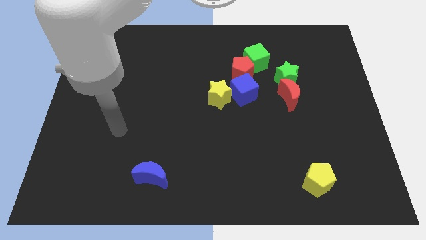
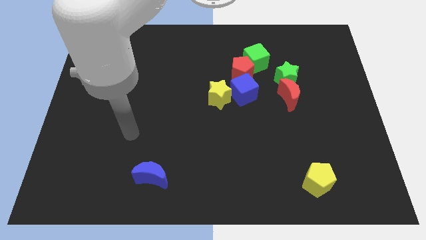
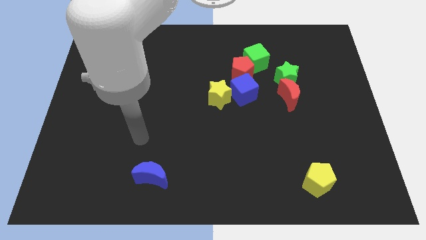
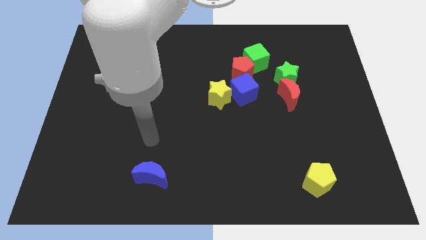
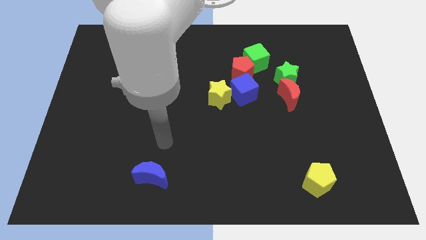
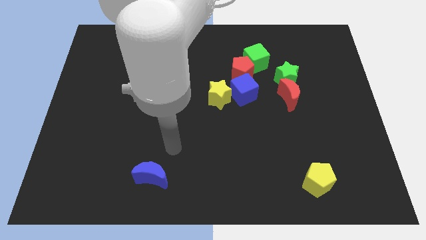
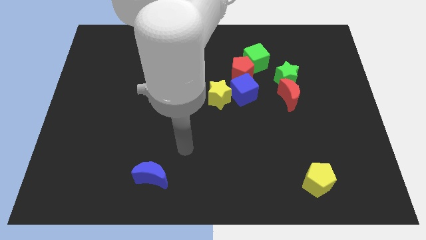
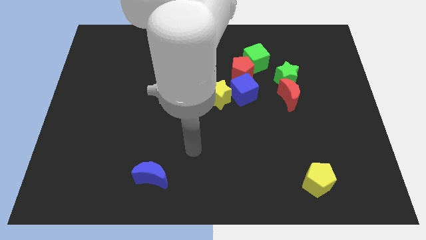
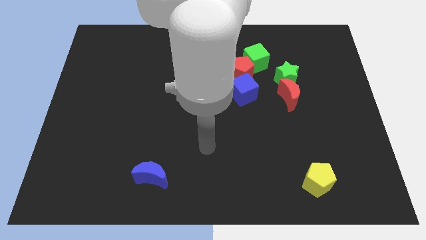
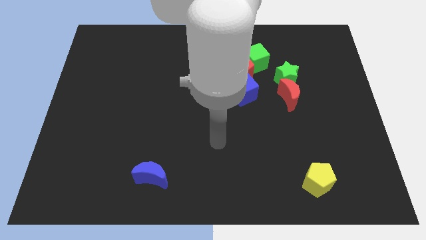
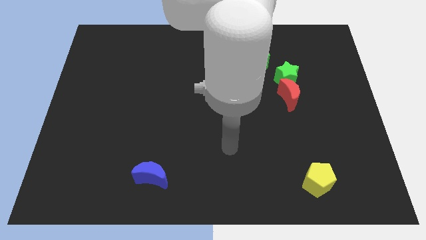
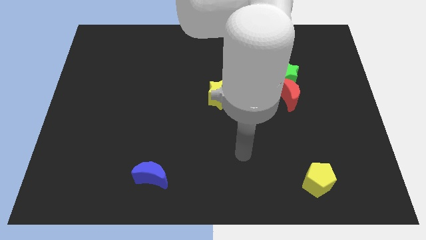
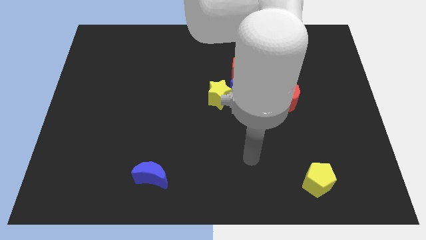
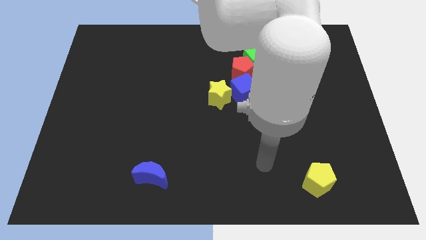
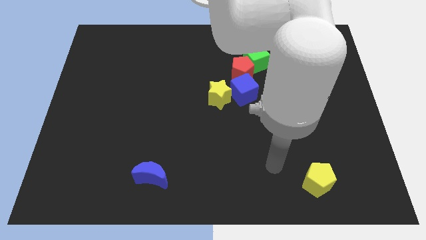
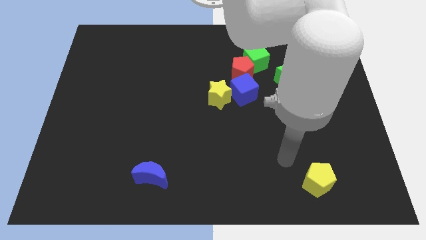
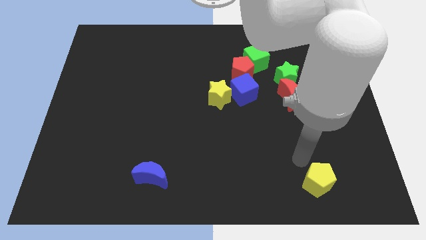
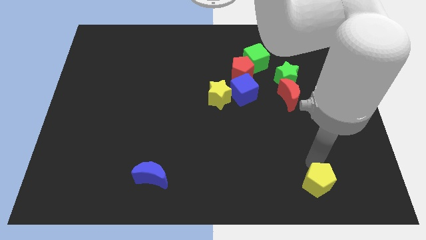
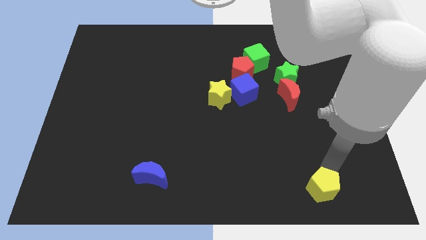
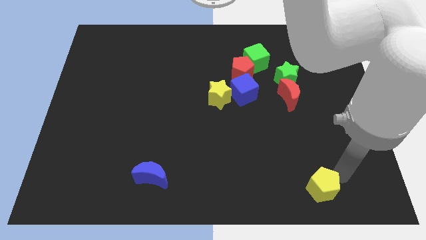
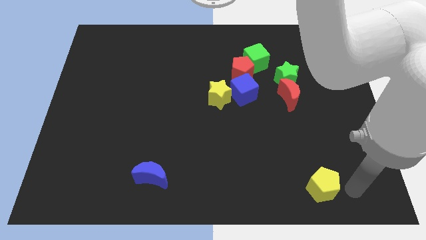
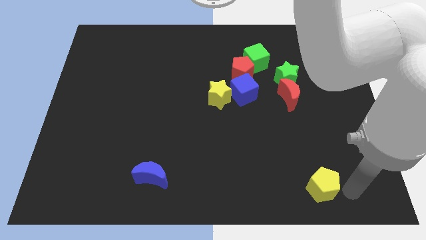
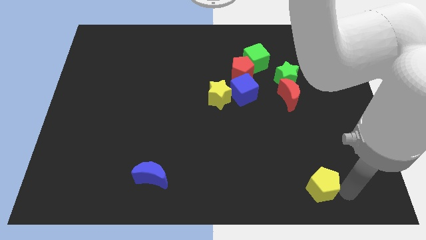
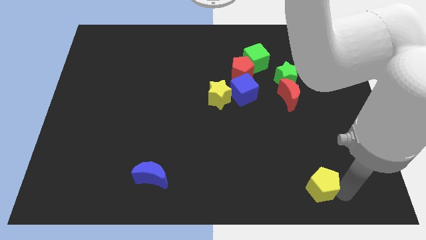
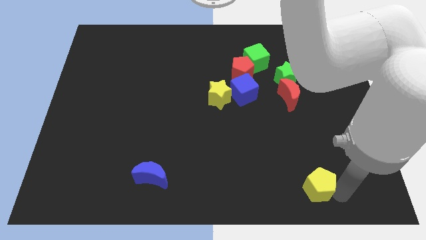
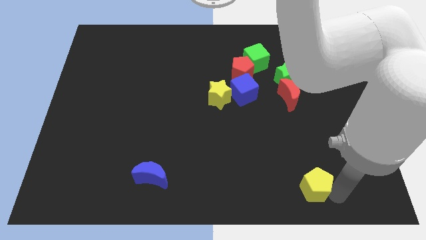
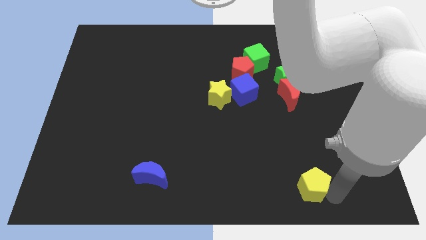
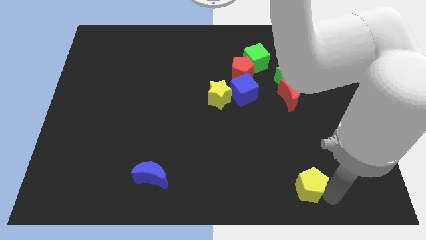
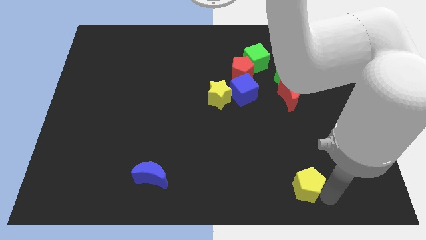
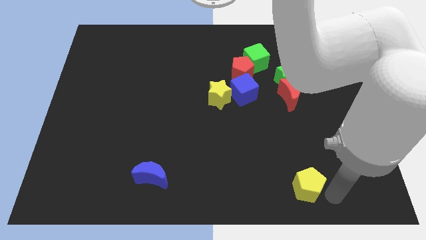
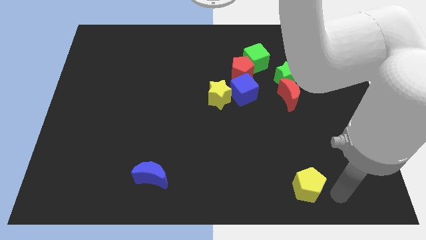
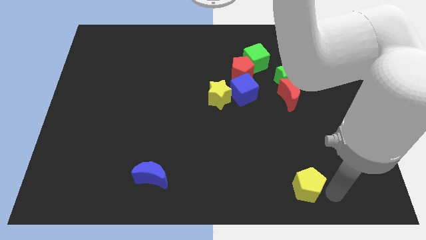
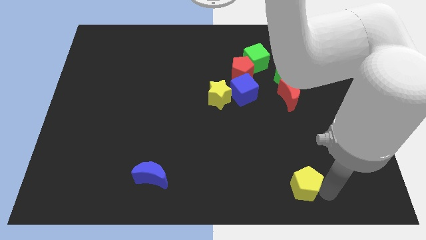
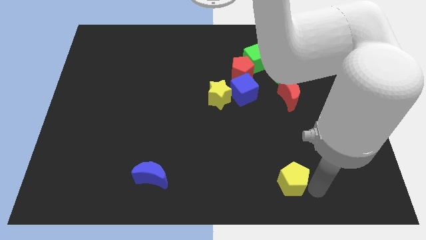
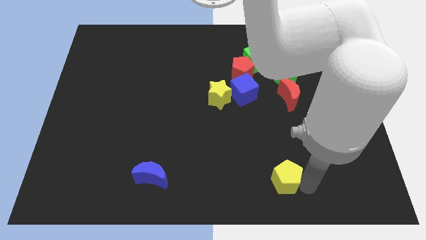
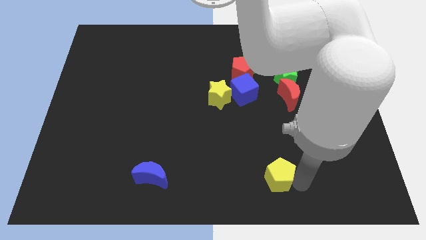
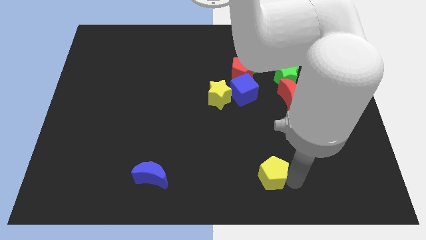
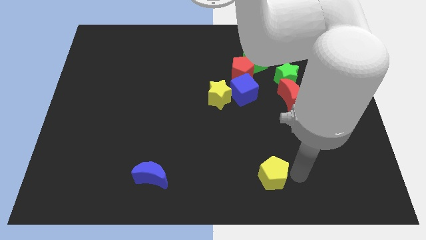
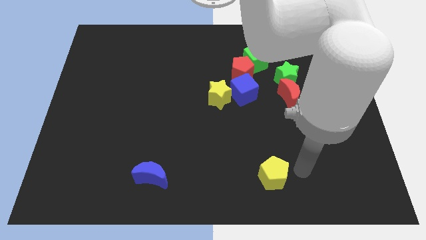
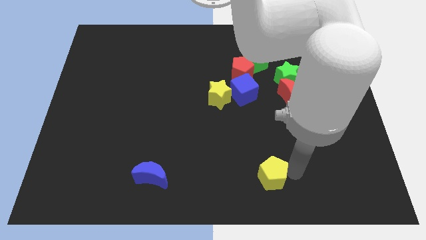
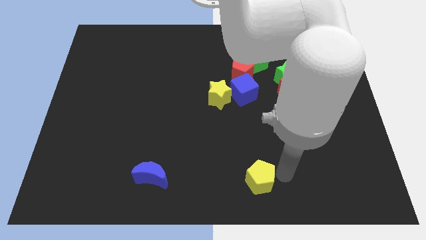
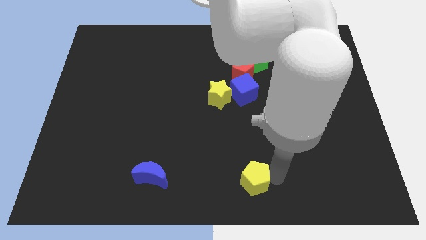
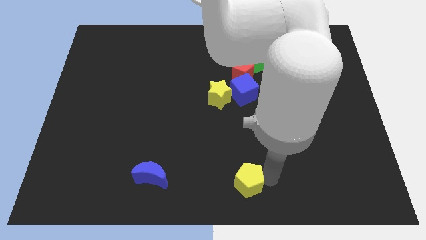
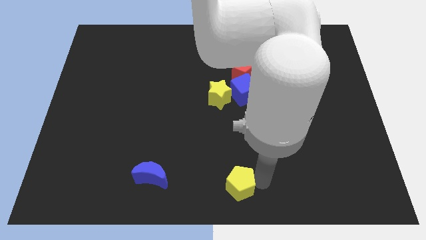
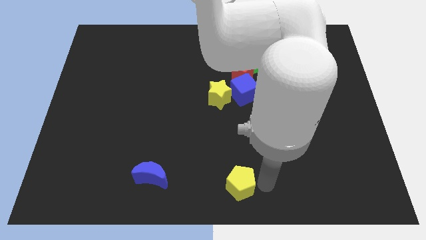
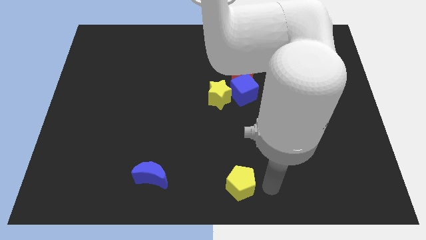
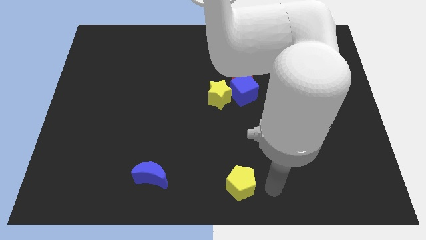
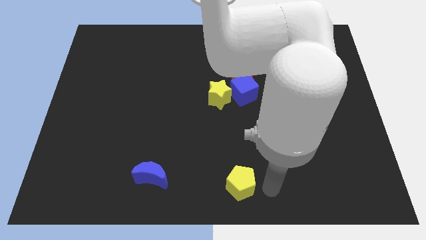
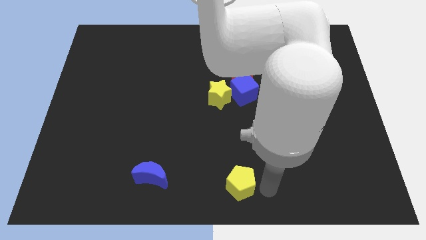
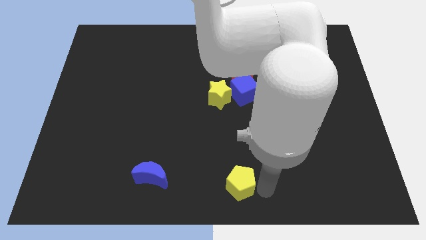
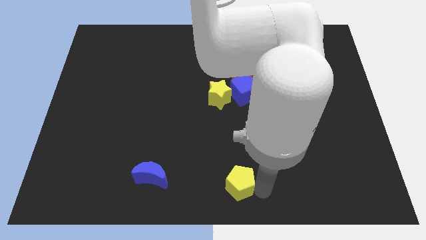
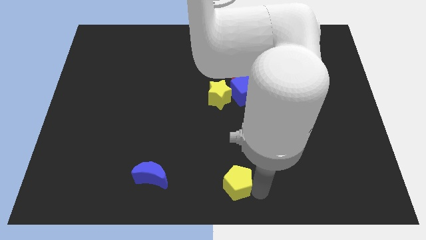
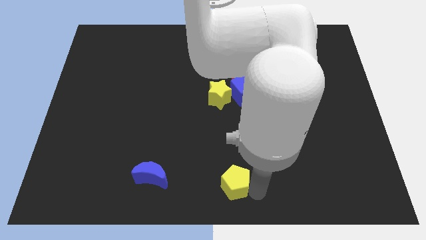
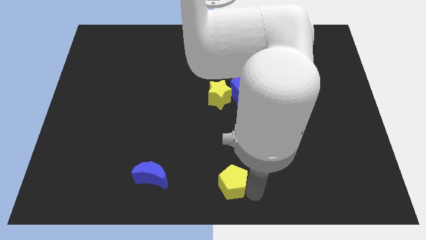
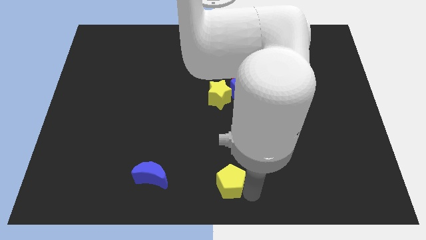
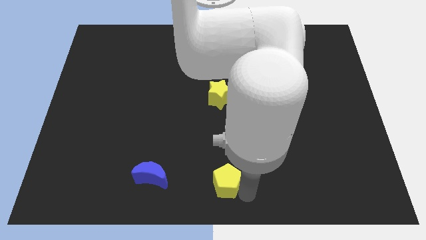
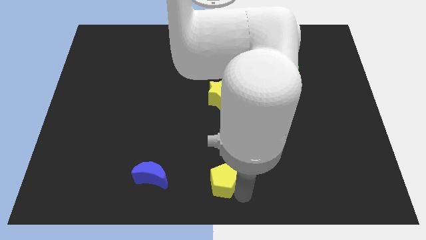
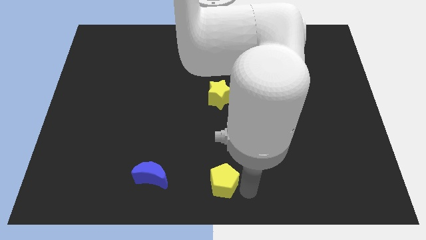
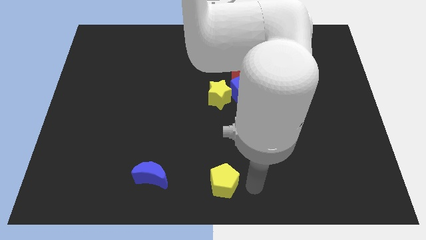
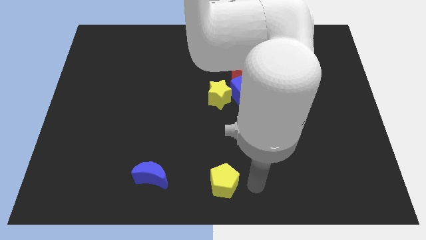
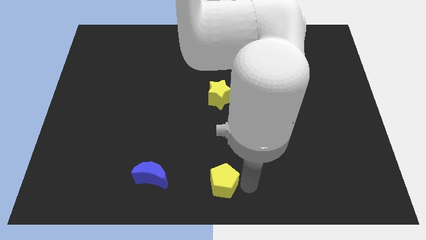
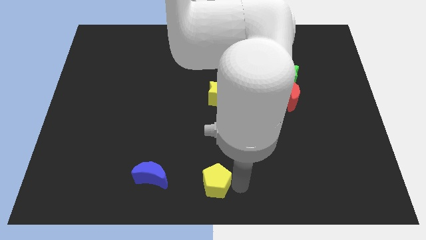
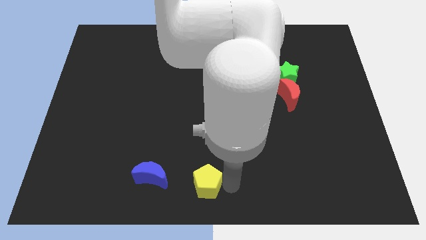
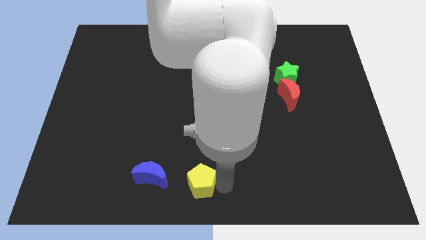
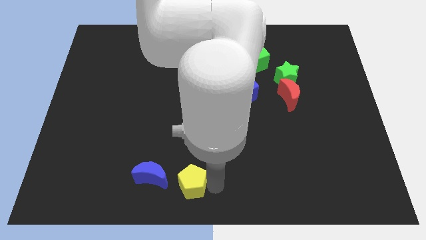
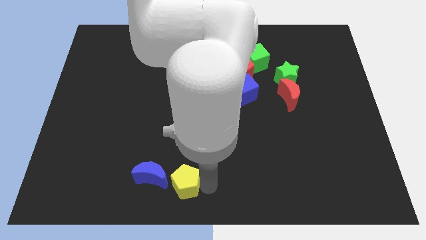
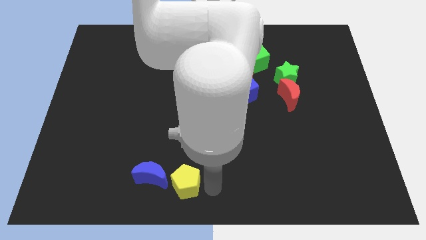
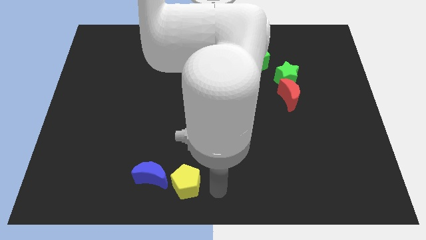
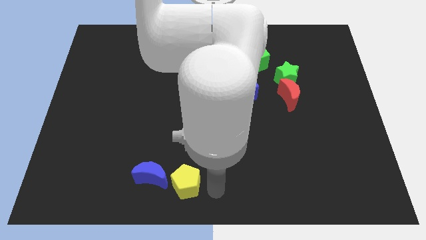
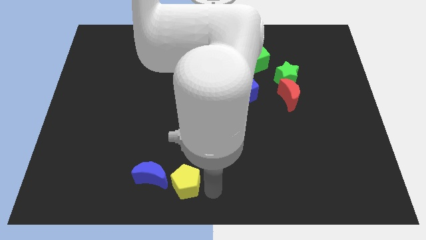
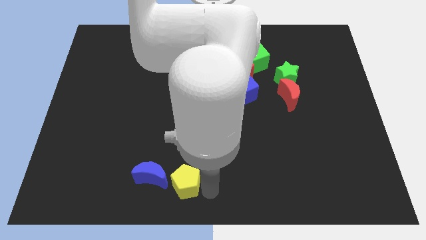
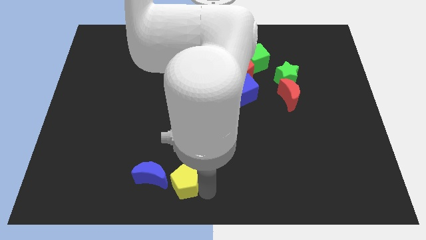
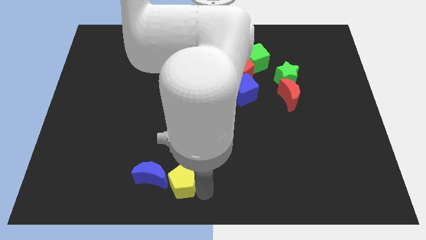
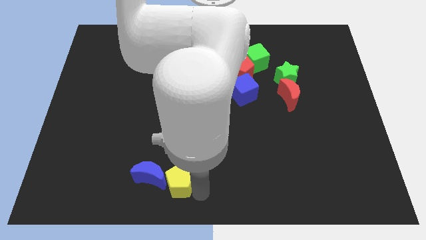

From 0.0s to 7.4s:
slide the yellow pentagon next to the blue moon
